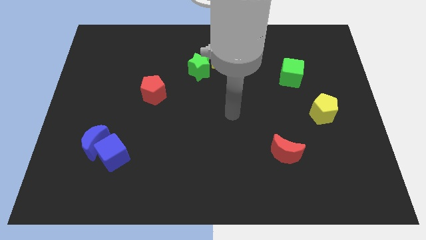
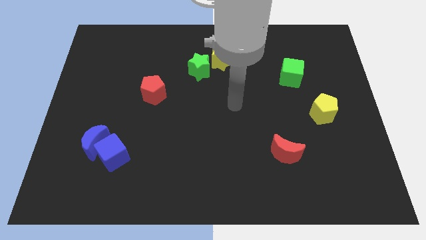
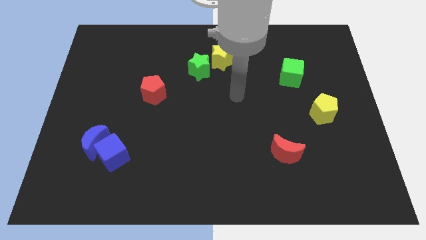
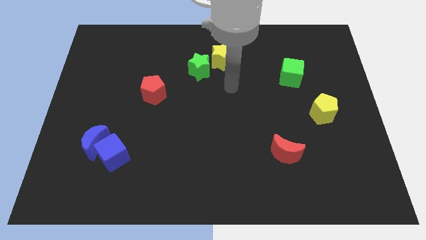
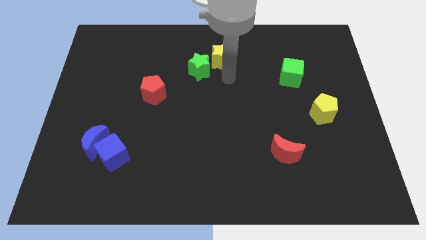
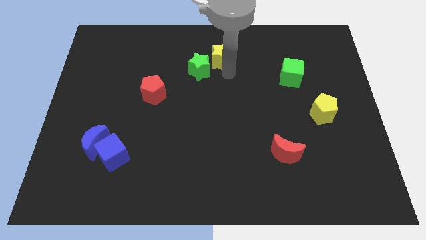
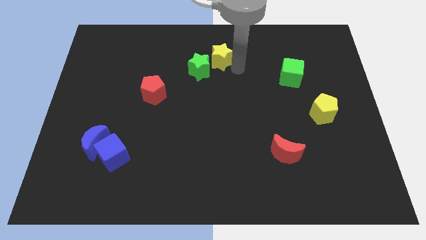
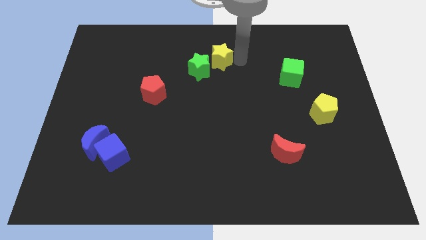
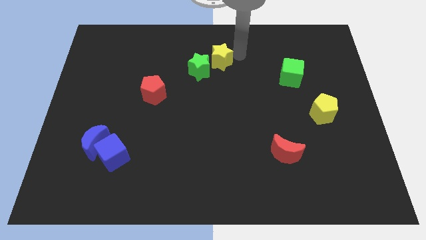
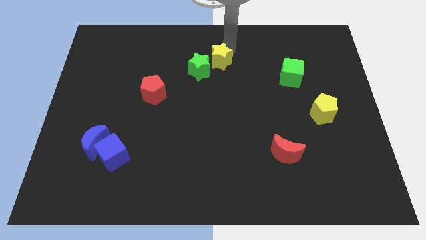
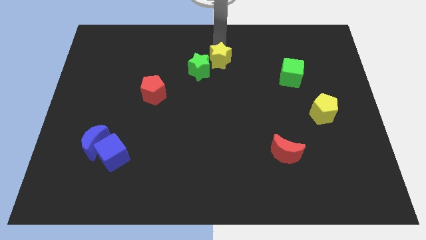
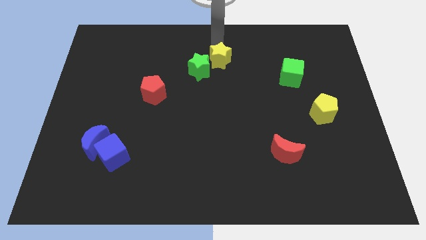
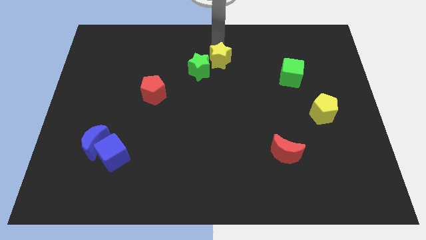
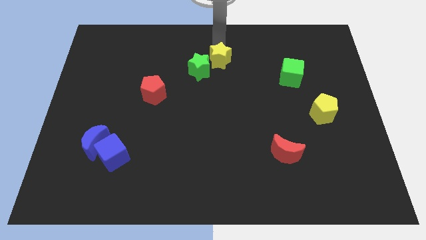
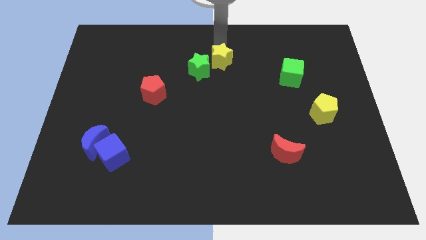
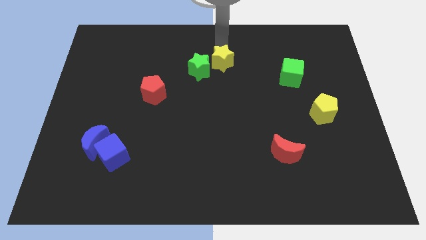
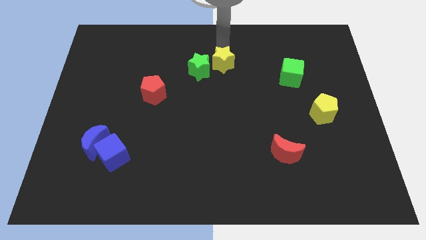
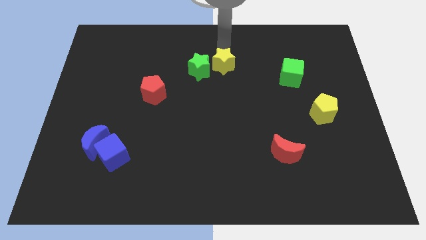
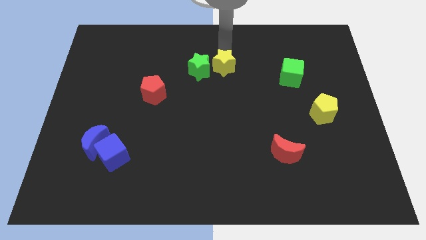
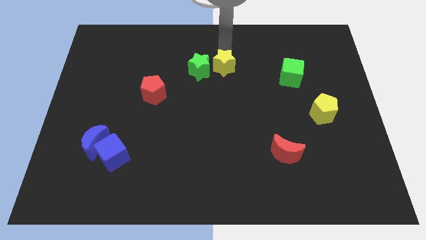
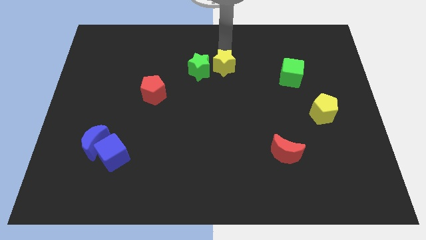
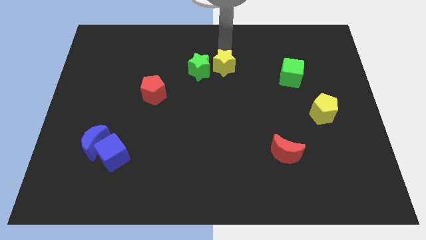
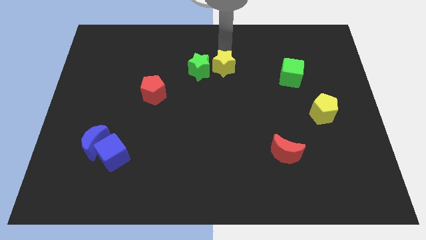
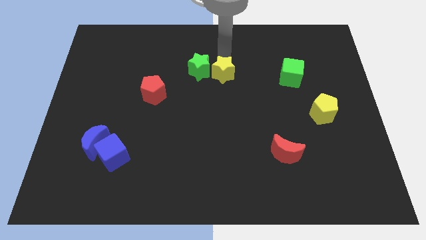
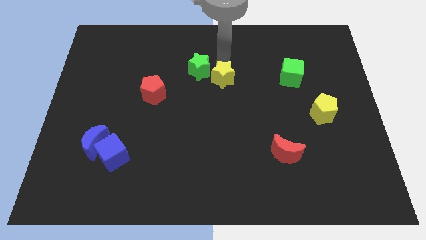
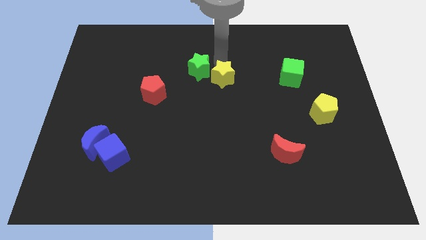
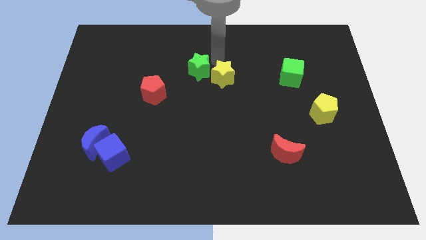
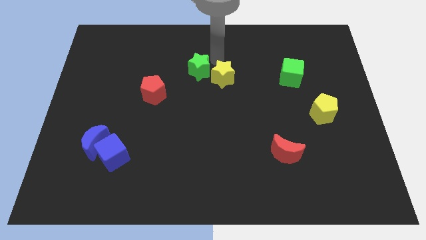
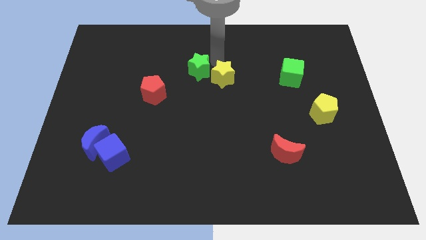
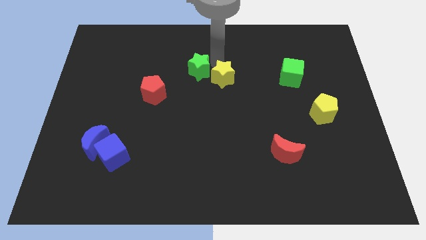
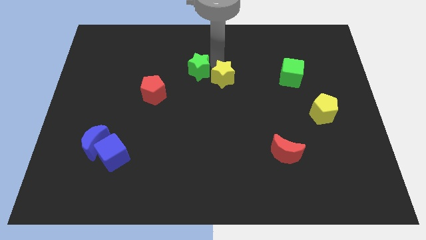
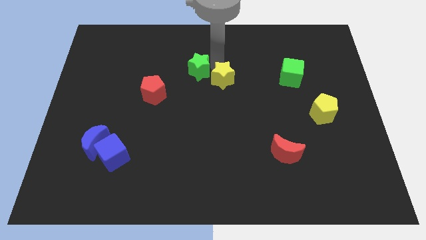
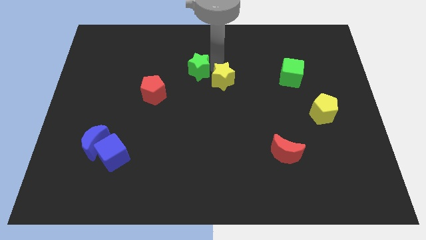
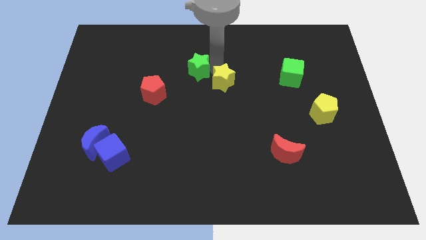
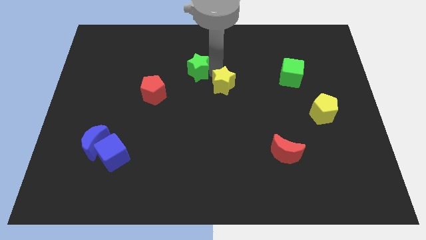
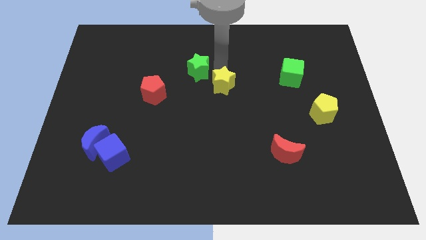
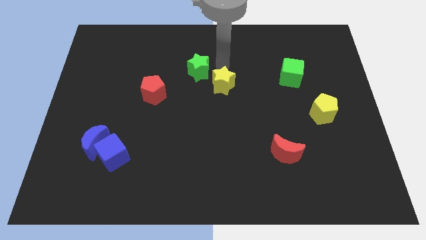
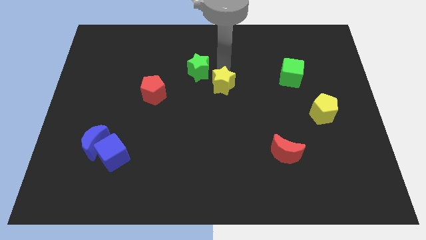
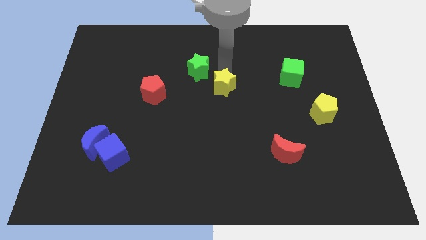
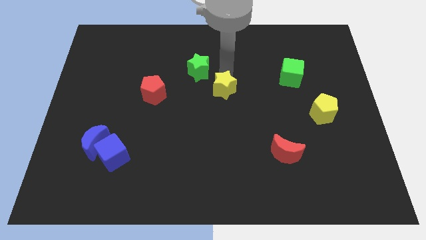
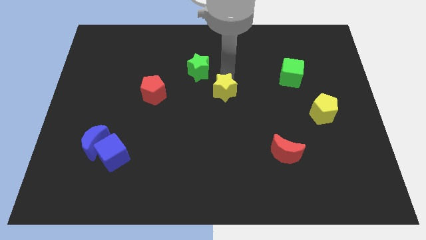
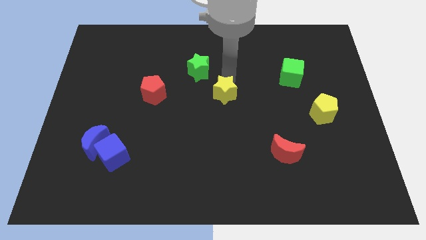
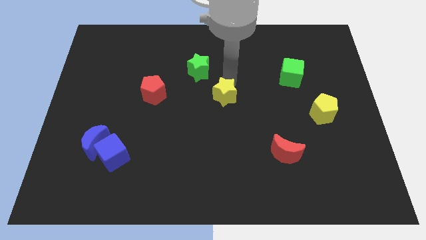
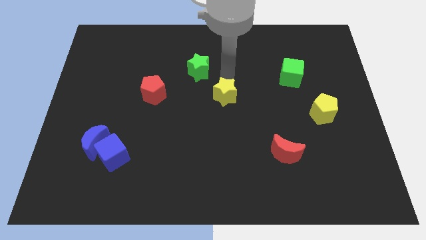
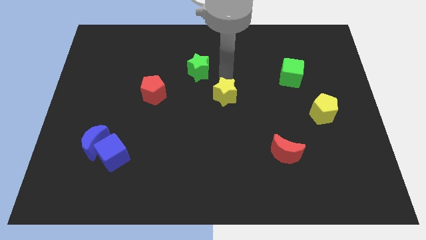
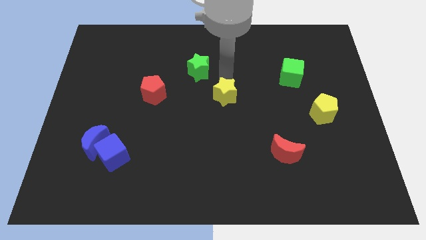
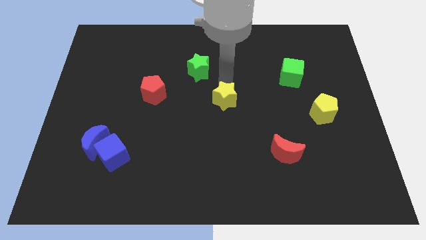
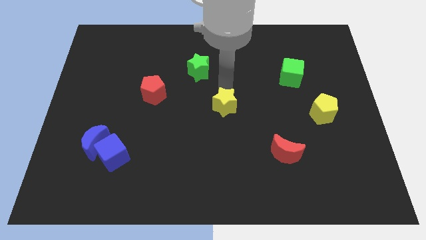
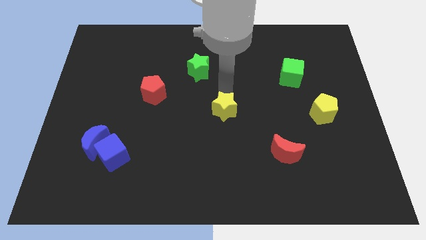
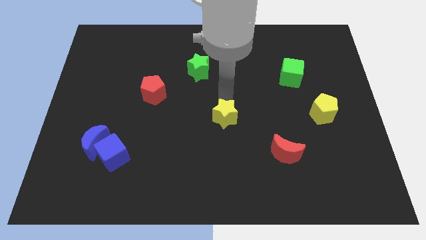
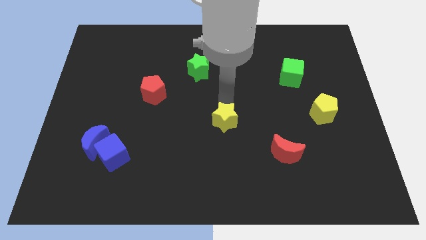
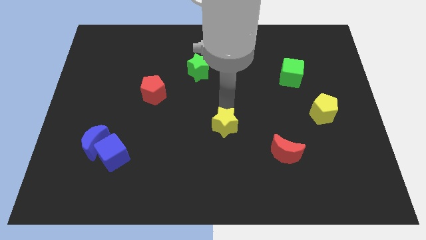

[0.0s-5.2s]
move the yellow star down

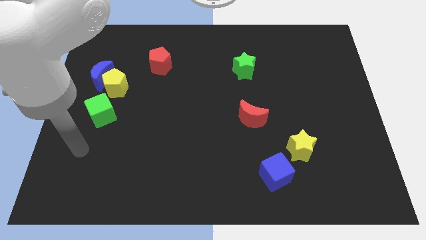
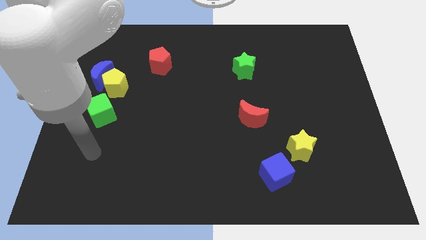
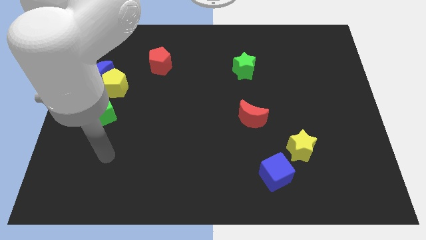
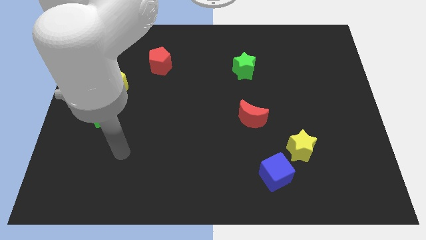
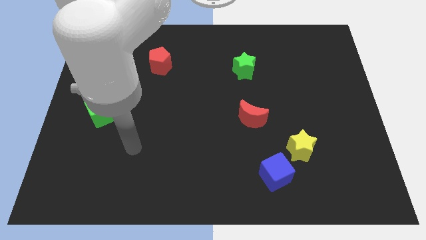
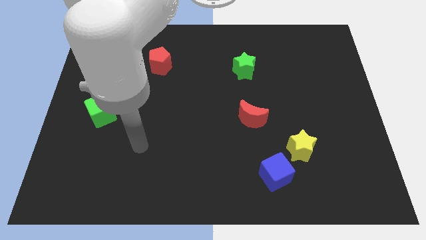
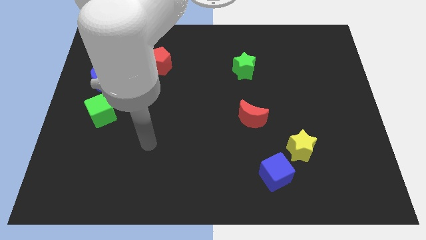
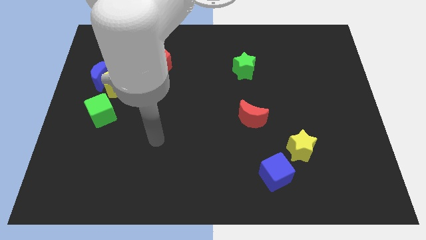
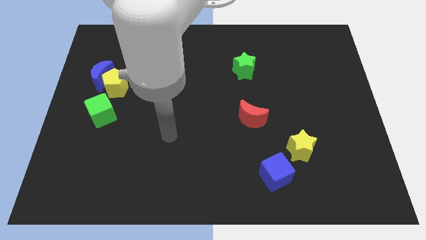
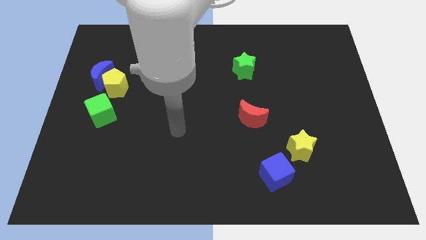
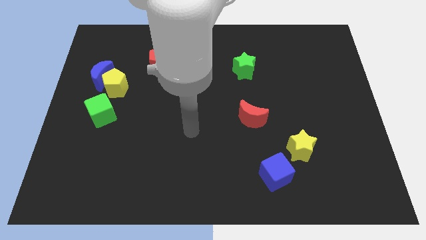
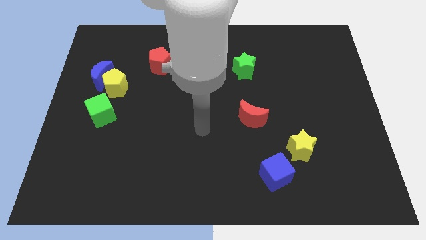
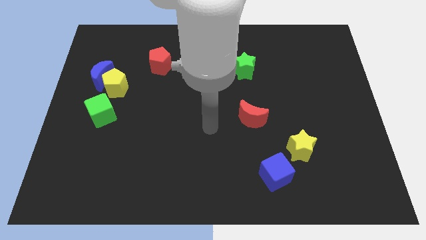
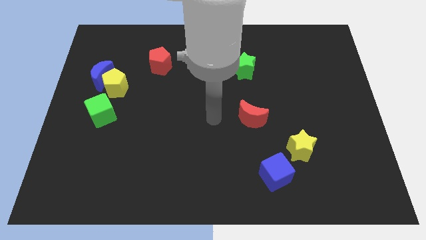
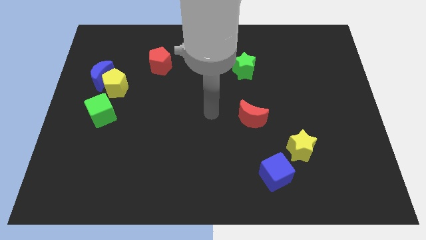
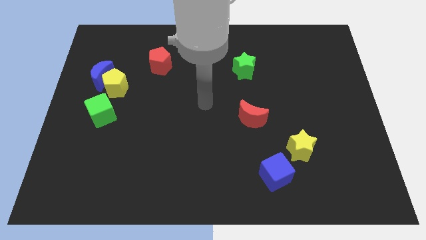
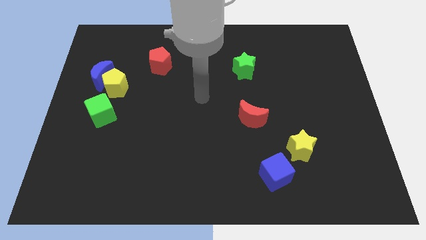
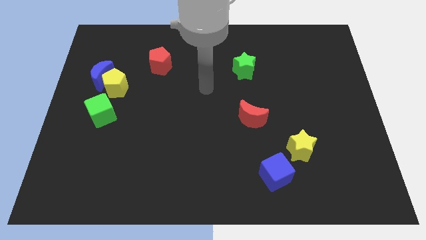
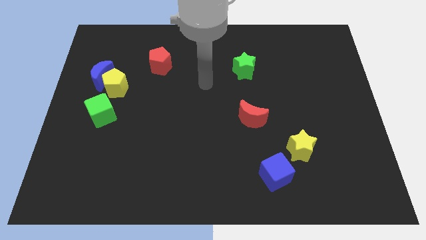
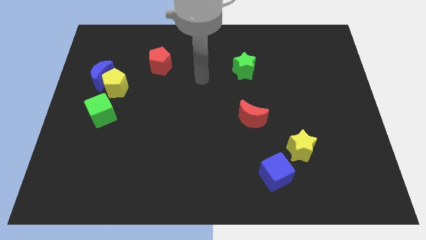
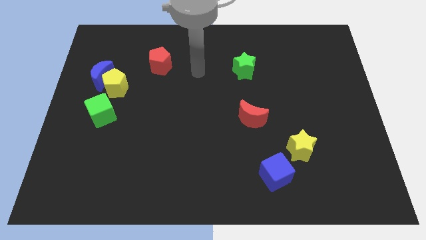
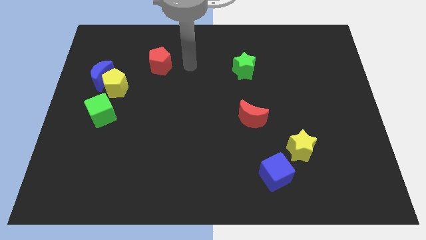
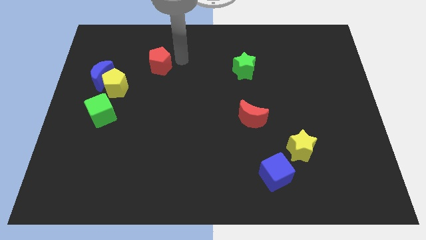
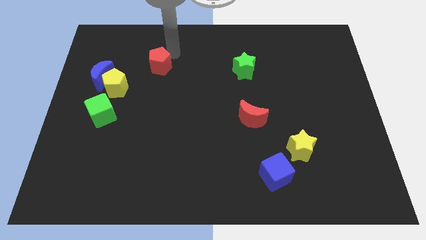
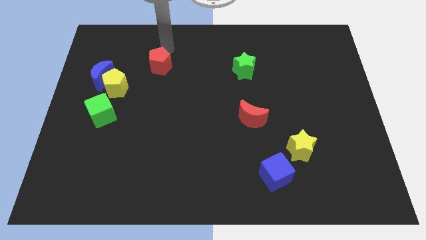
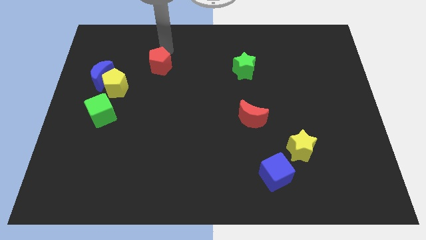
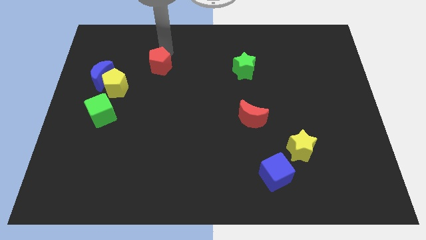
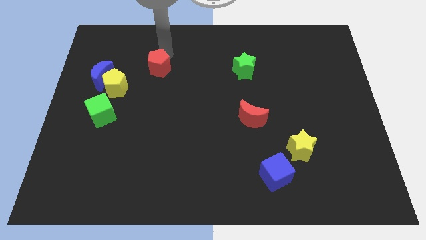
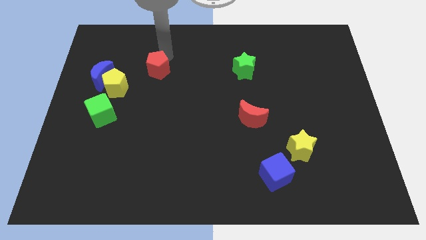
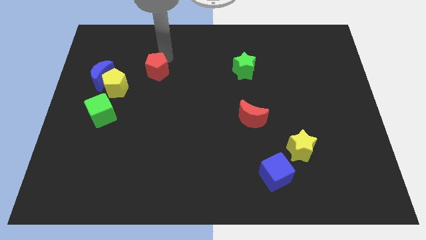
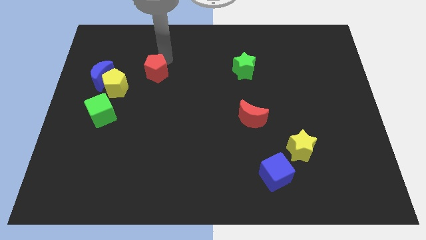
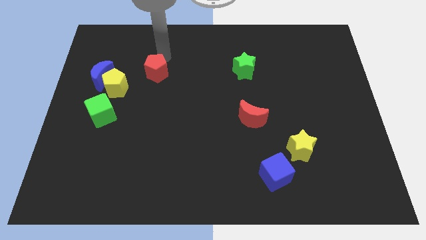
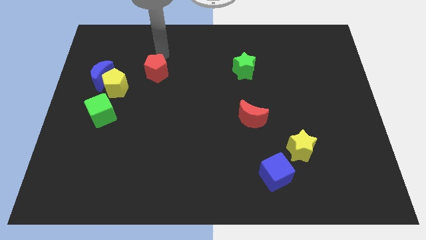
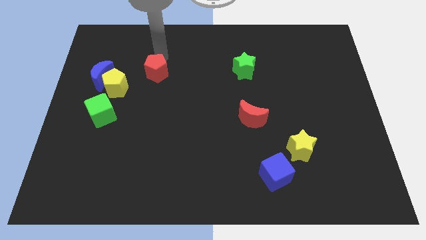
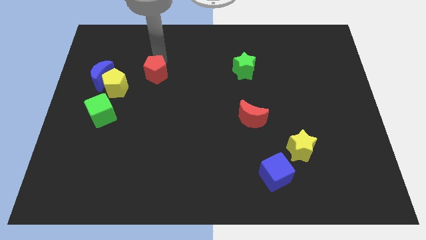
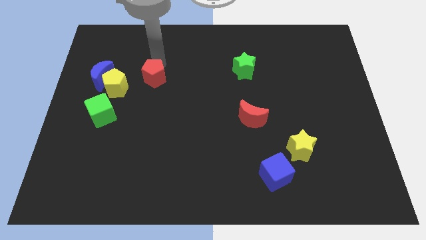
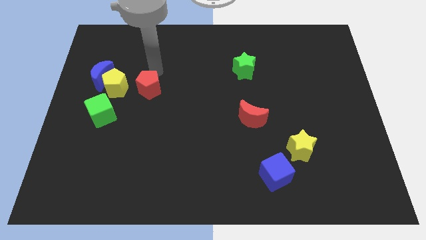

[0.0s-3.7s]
push the red pentagon down slightly
